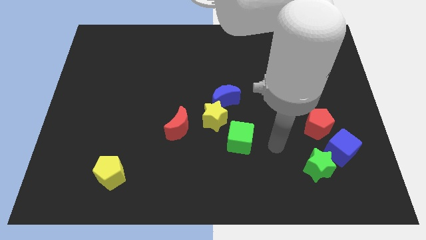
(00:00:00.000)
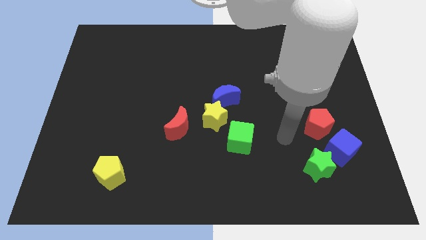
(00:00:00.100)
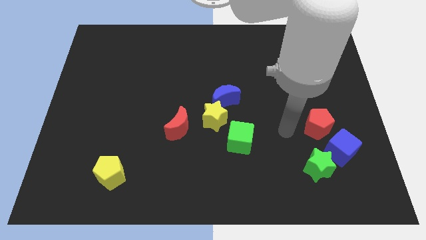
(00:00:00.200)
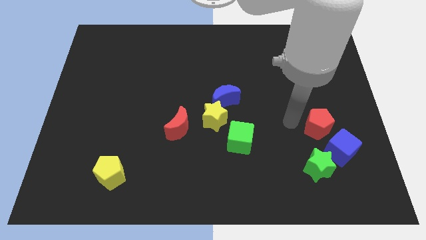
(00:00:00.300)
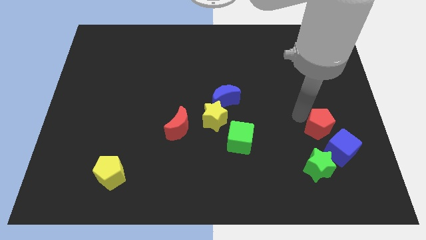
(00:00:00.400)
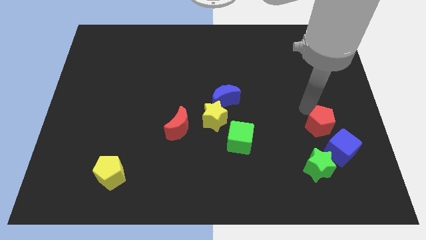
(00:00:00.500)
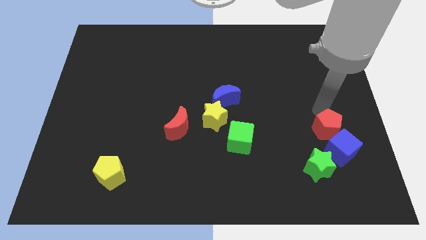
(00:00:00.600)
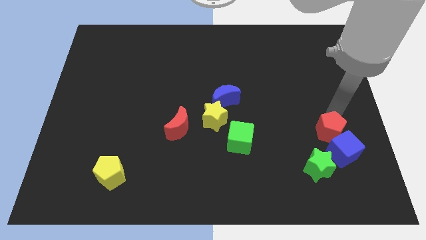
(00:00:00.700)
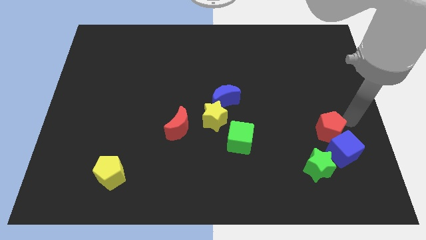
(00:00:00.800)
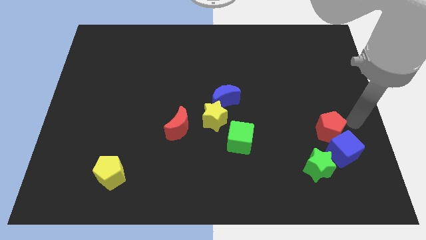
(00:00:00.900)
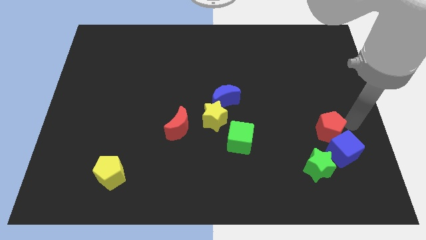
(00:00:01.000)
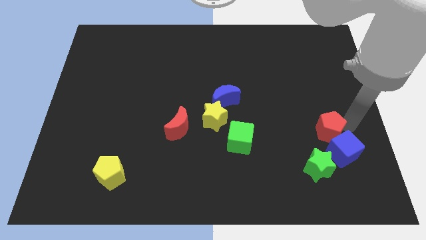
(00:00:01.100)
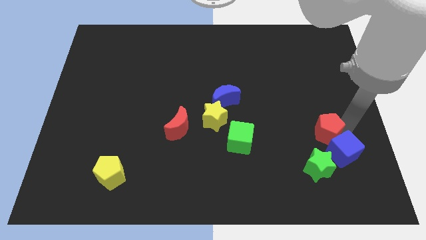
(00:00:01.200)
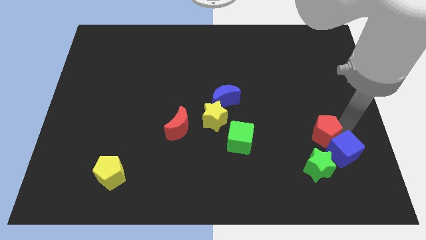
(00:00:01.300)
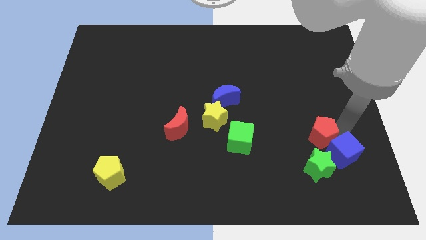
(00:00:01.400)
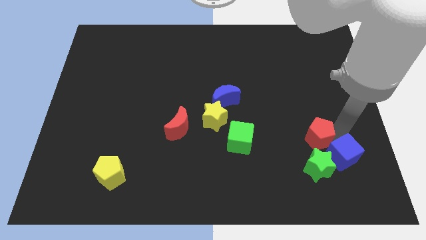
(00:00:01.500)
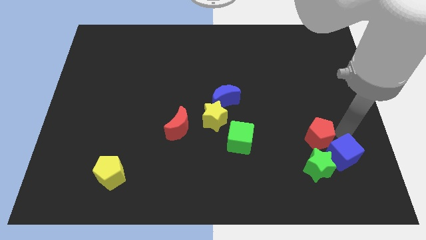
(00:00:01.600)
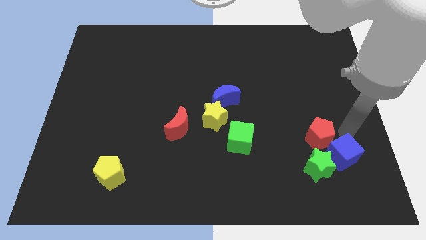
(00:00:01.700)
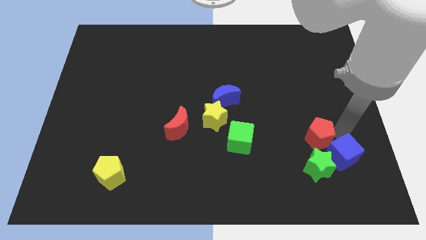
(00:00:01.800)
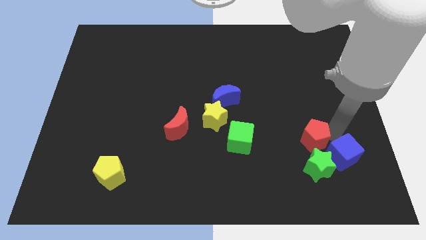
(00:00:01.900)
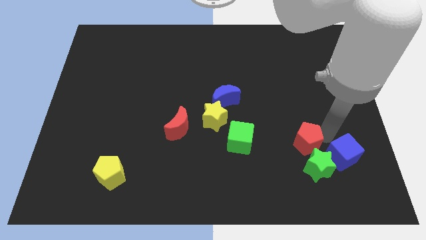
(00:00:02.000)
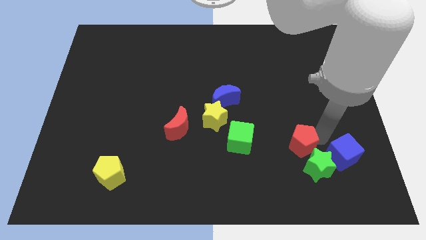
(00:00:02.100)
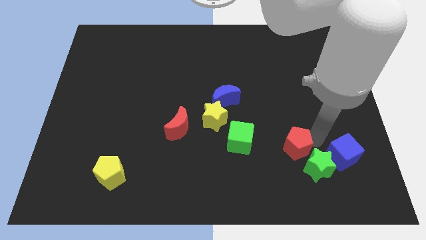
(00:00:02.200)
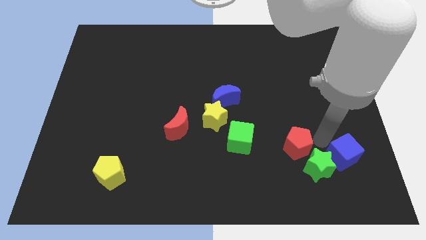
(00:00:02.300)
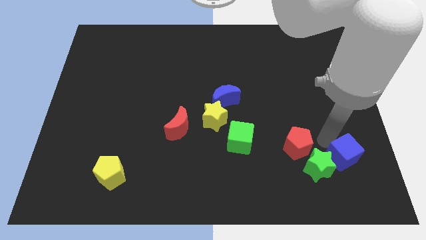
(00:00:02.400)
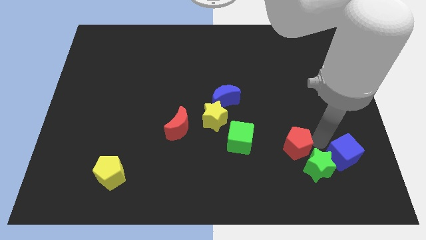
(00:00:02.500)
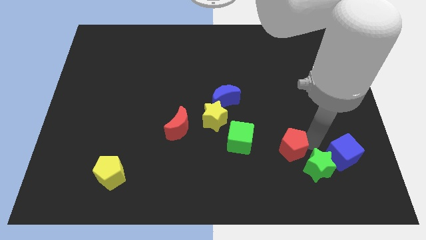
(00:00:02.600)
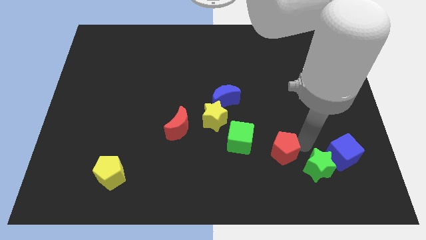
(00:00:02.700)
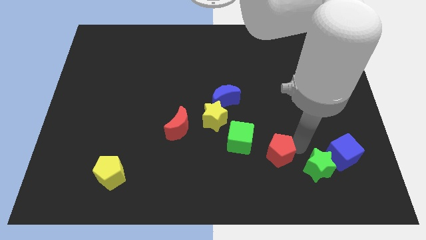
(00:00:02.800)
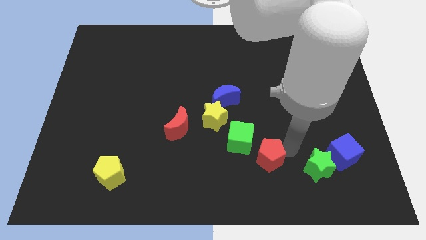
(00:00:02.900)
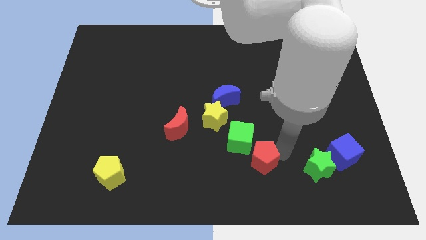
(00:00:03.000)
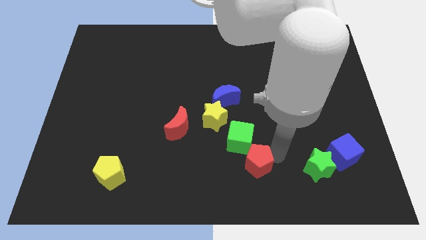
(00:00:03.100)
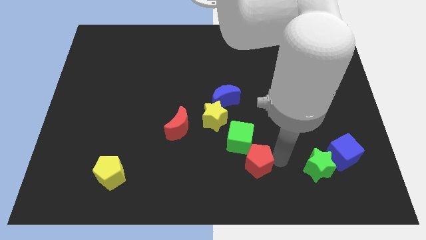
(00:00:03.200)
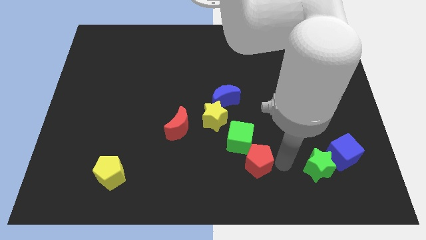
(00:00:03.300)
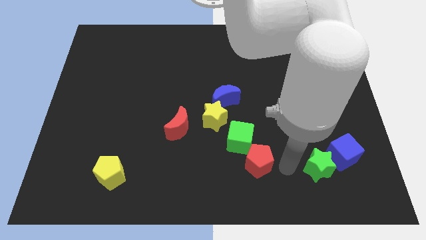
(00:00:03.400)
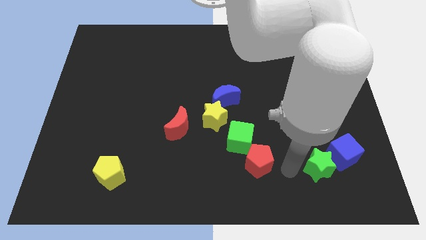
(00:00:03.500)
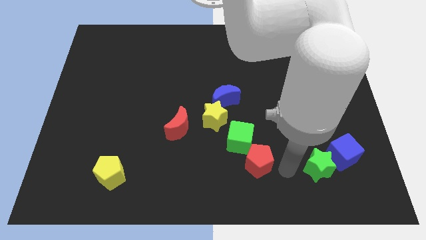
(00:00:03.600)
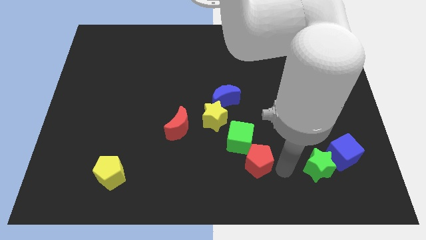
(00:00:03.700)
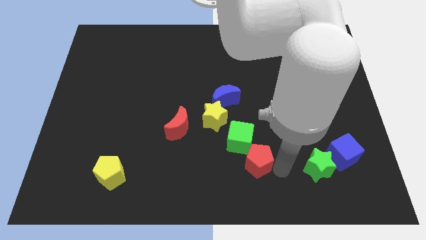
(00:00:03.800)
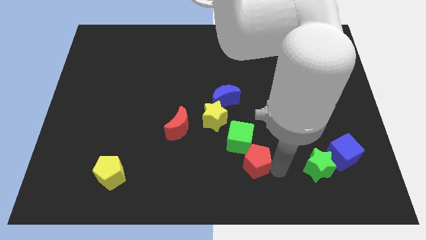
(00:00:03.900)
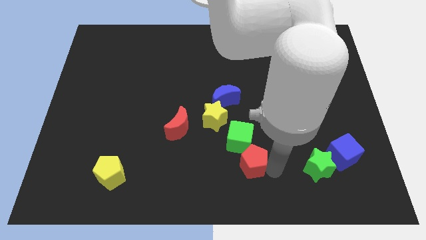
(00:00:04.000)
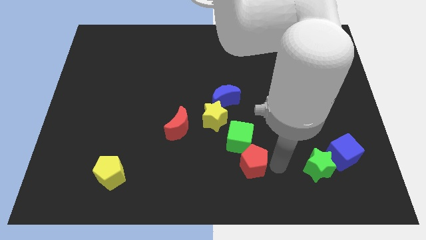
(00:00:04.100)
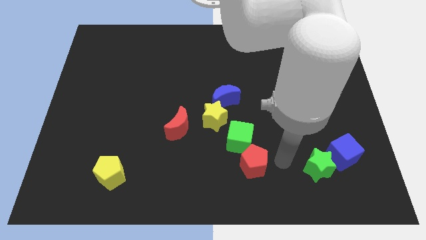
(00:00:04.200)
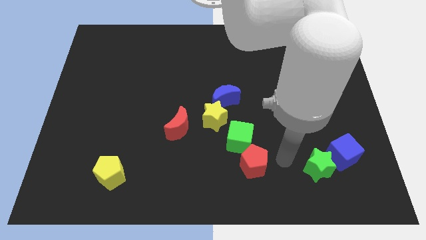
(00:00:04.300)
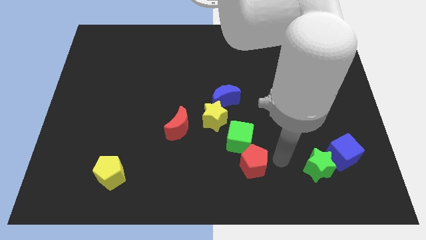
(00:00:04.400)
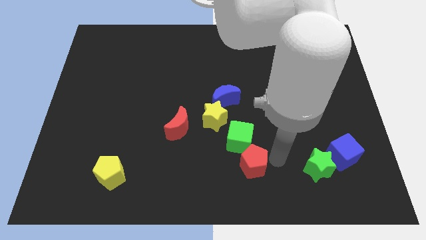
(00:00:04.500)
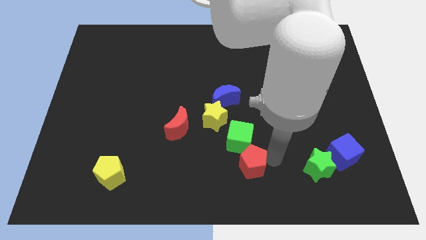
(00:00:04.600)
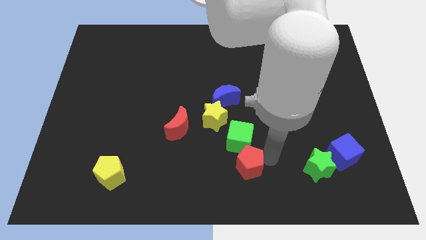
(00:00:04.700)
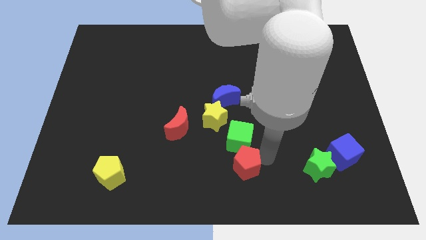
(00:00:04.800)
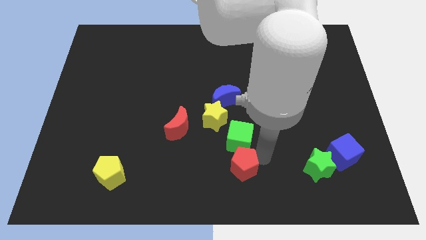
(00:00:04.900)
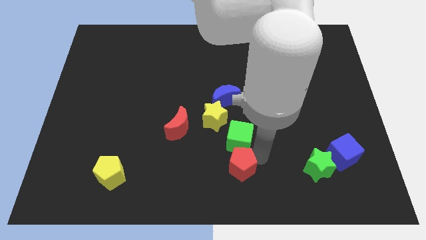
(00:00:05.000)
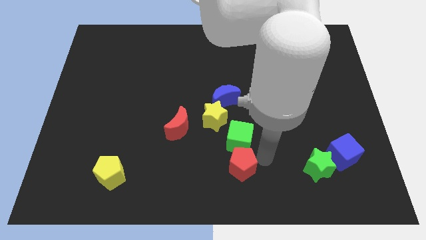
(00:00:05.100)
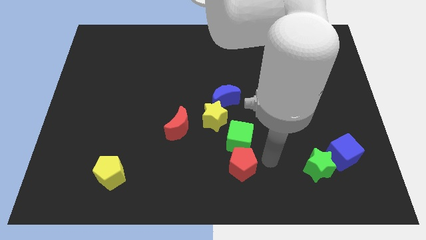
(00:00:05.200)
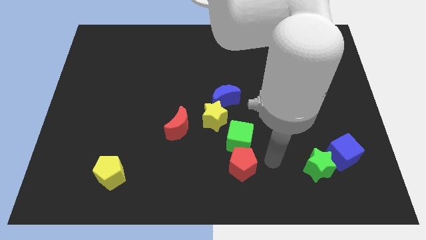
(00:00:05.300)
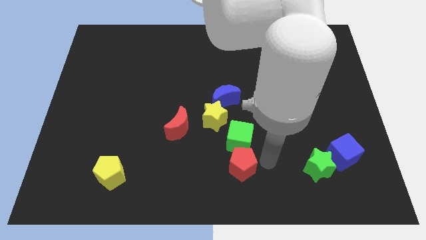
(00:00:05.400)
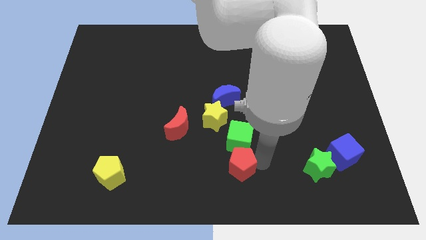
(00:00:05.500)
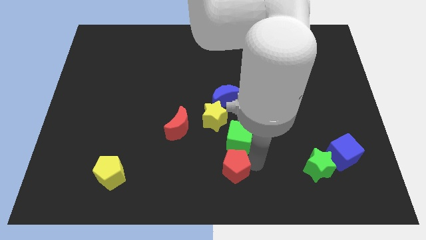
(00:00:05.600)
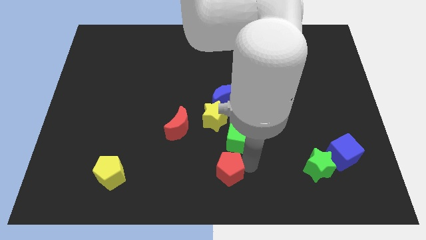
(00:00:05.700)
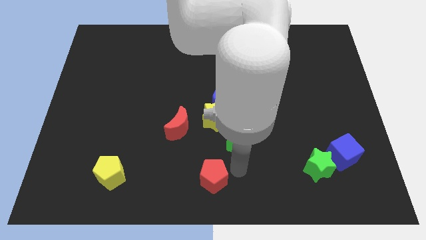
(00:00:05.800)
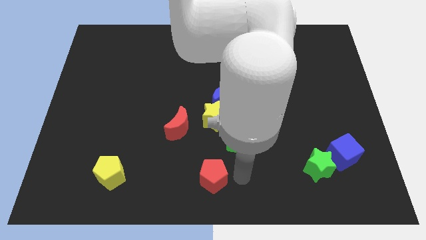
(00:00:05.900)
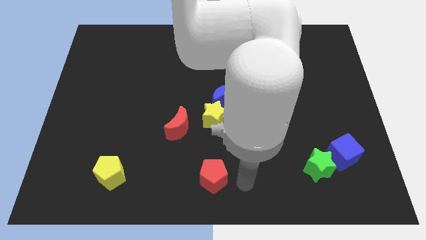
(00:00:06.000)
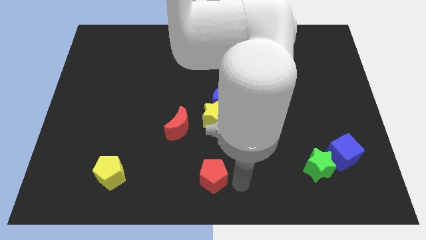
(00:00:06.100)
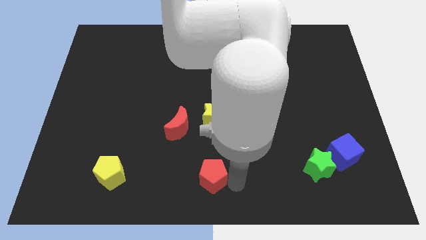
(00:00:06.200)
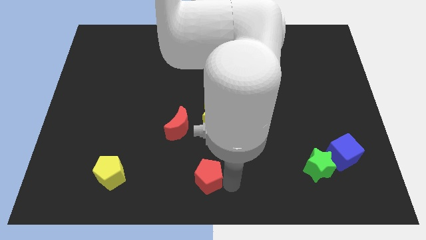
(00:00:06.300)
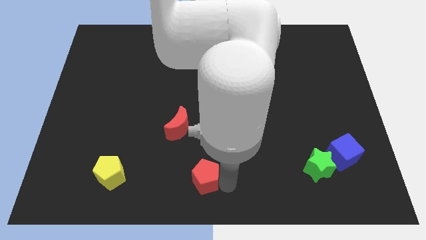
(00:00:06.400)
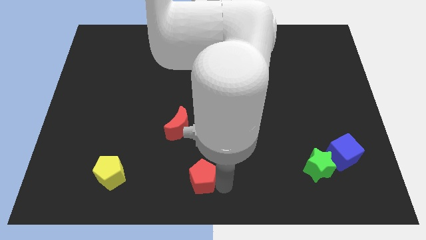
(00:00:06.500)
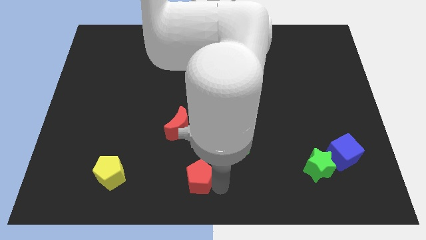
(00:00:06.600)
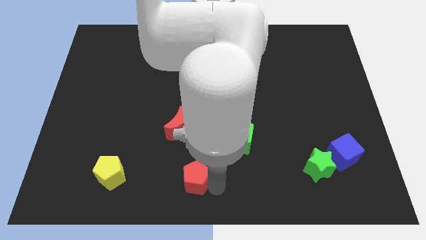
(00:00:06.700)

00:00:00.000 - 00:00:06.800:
slide the red pentagon to the bottom side of the red moon

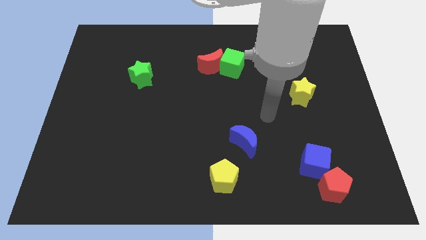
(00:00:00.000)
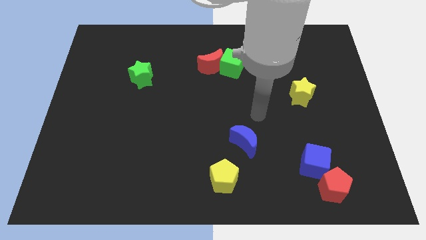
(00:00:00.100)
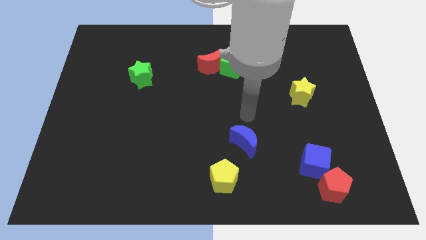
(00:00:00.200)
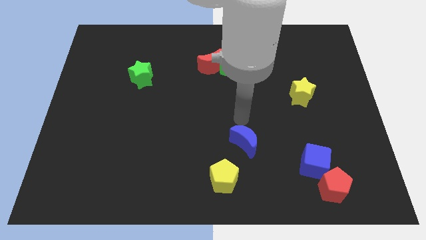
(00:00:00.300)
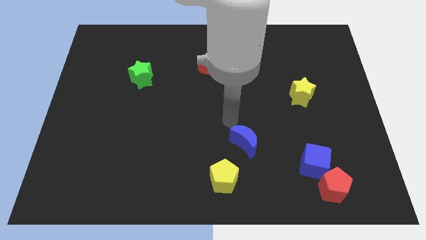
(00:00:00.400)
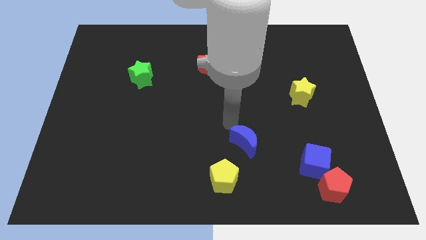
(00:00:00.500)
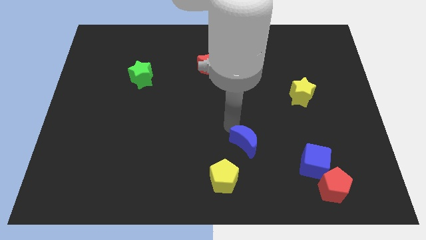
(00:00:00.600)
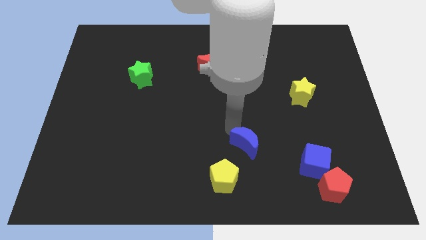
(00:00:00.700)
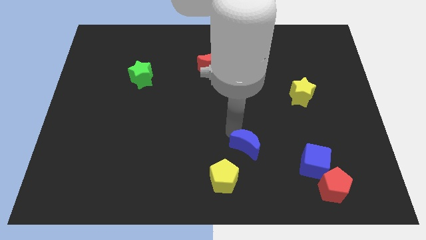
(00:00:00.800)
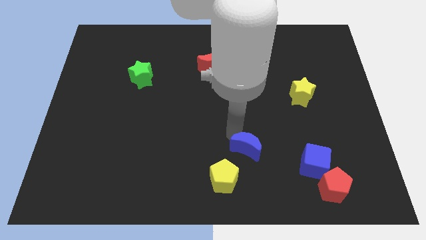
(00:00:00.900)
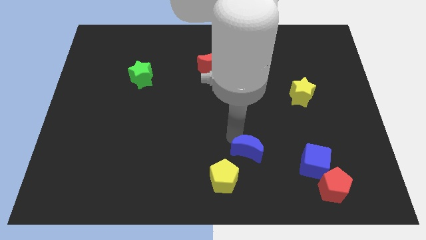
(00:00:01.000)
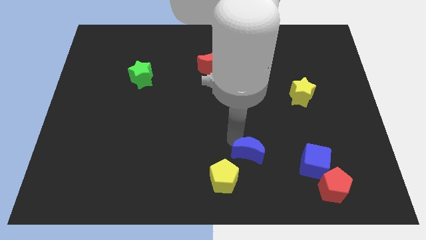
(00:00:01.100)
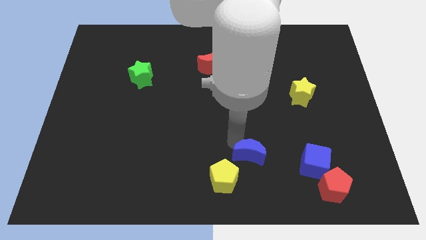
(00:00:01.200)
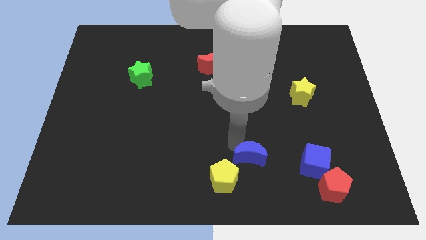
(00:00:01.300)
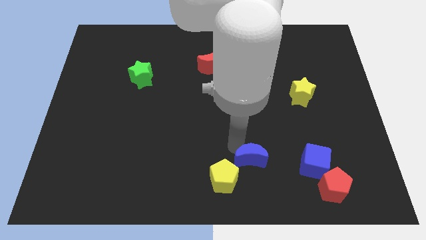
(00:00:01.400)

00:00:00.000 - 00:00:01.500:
put the blue moon right of the yellow pentagon
